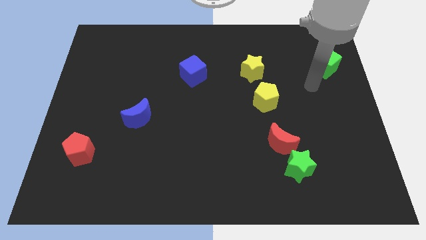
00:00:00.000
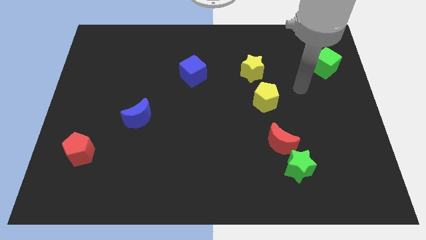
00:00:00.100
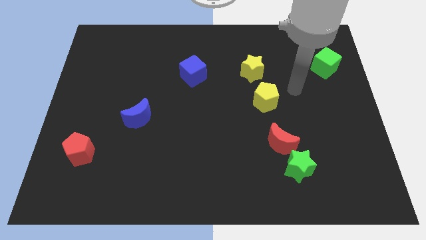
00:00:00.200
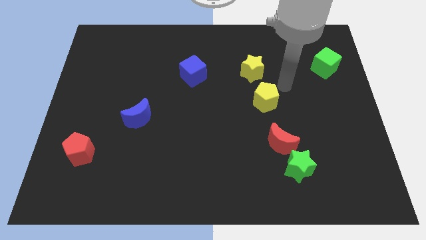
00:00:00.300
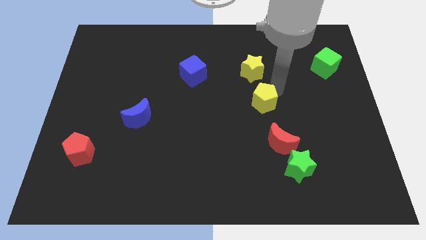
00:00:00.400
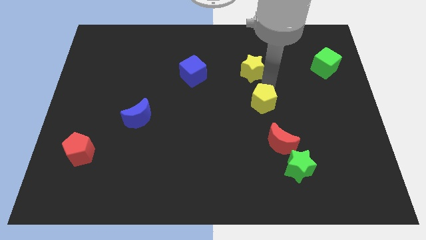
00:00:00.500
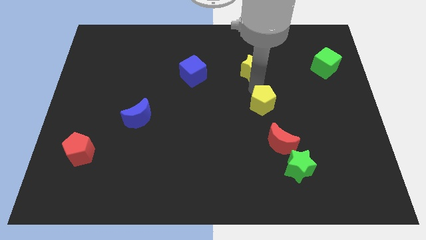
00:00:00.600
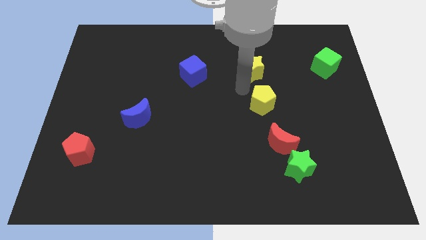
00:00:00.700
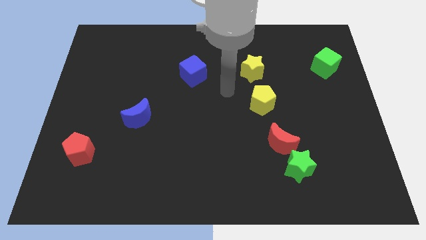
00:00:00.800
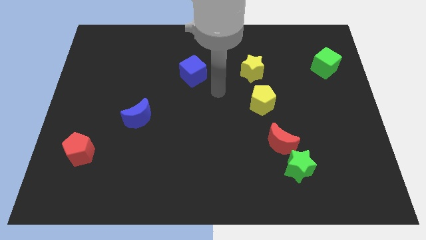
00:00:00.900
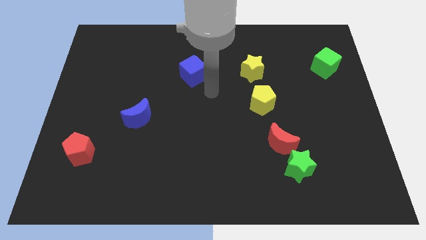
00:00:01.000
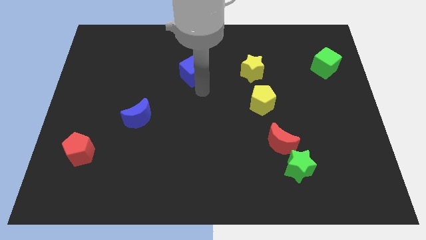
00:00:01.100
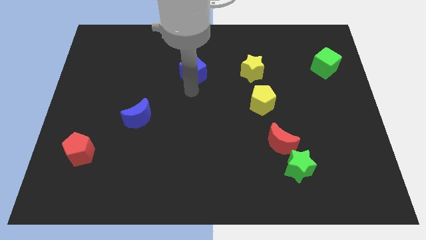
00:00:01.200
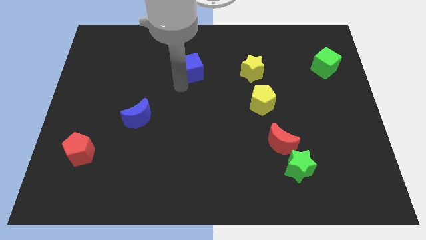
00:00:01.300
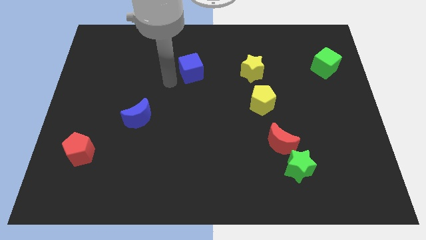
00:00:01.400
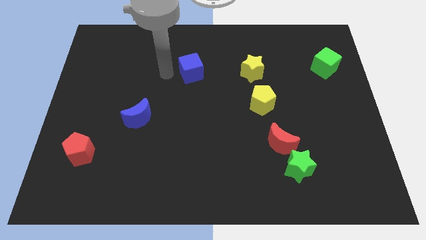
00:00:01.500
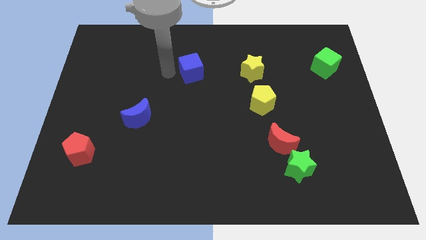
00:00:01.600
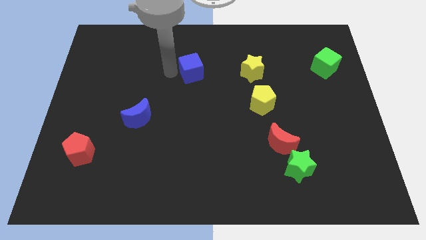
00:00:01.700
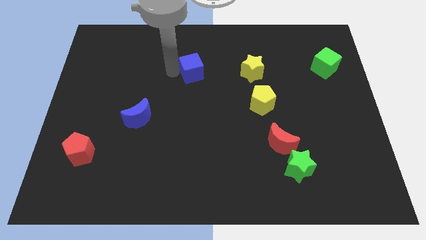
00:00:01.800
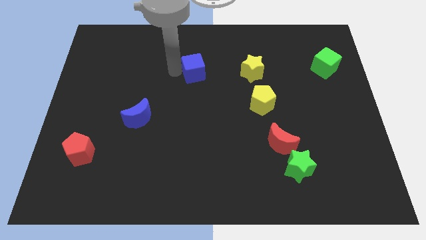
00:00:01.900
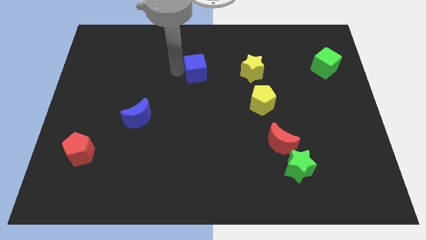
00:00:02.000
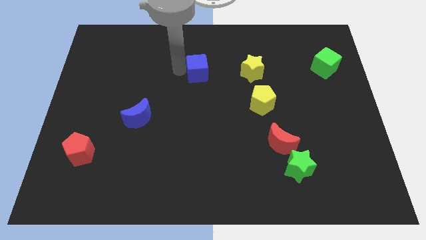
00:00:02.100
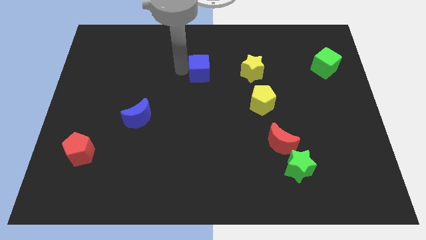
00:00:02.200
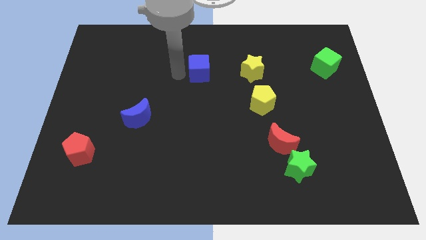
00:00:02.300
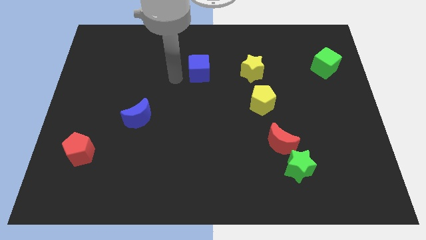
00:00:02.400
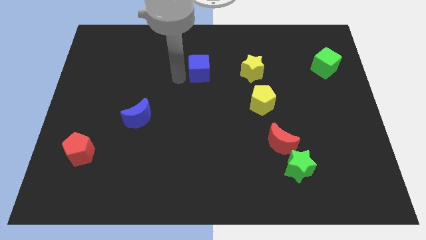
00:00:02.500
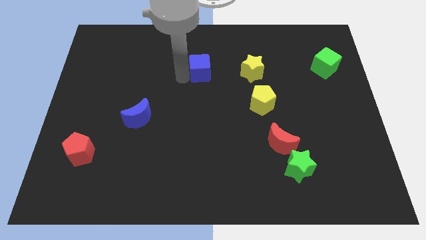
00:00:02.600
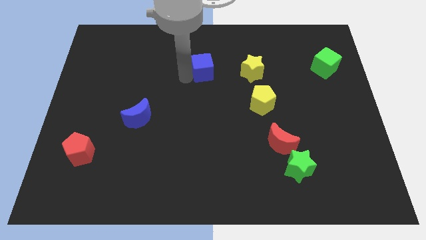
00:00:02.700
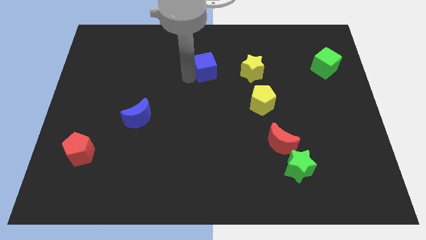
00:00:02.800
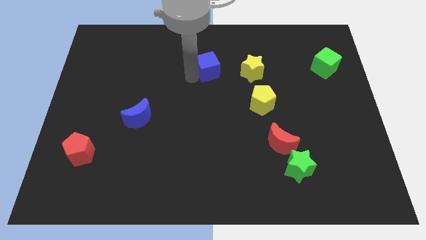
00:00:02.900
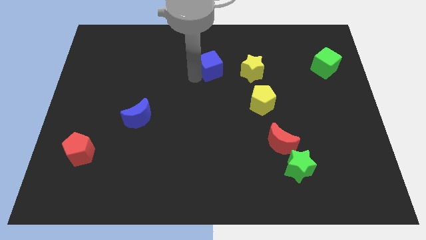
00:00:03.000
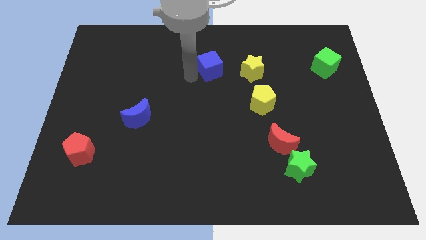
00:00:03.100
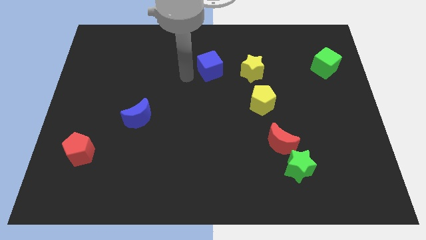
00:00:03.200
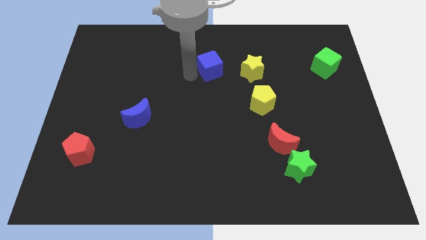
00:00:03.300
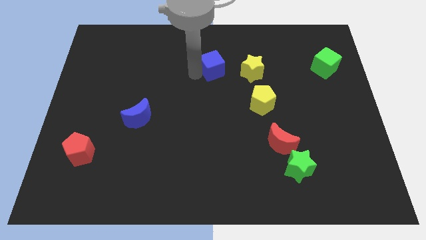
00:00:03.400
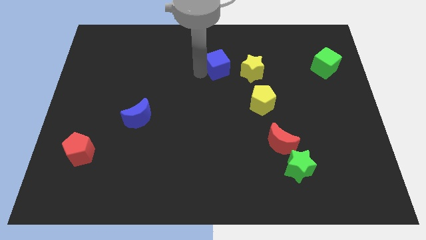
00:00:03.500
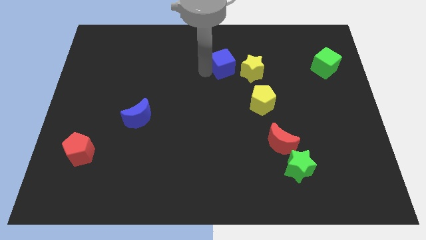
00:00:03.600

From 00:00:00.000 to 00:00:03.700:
push the blue cube a little right

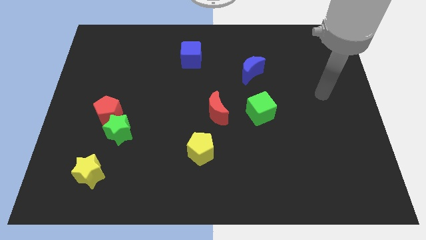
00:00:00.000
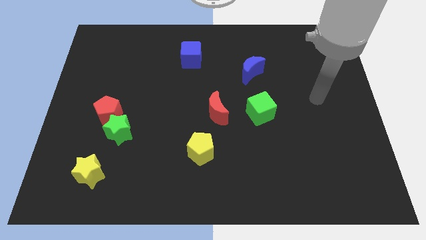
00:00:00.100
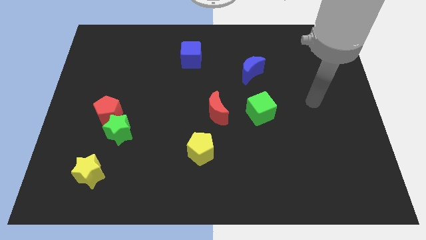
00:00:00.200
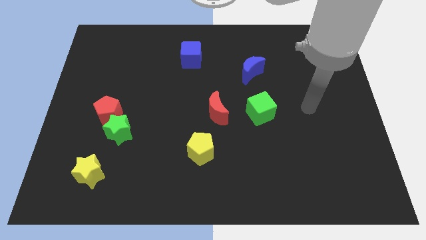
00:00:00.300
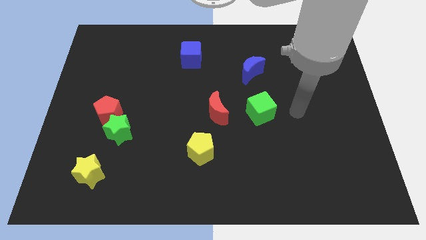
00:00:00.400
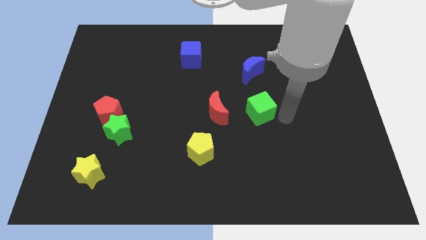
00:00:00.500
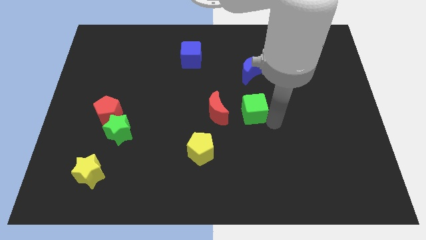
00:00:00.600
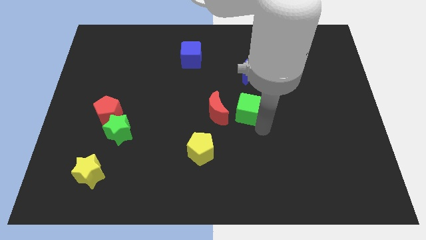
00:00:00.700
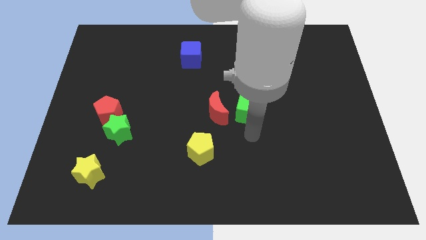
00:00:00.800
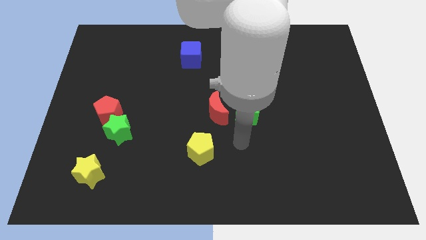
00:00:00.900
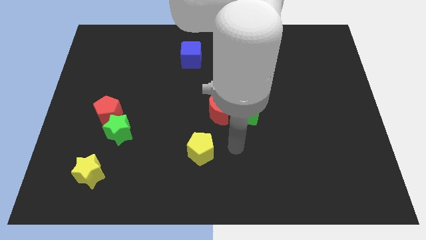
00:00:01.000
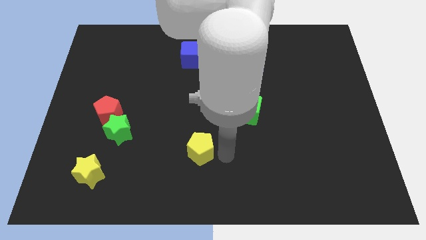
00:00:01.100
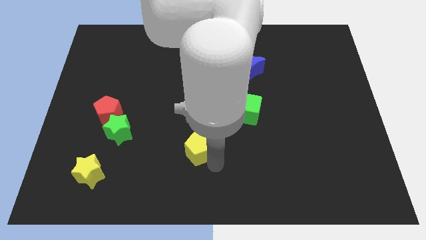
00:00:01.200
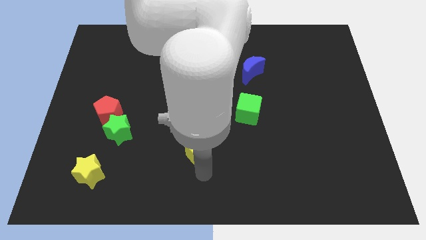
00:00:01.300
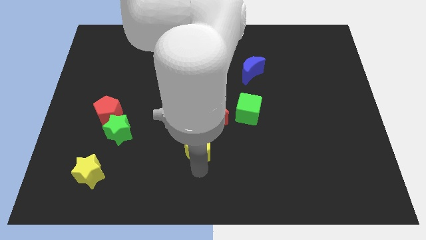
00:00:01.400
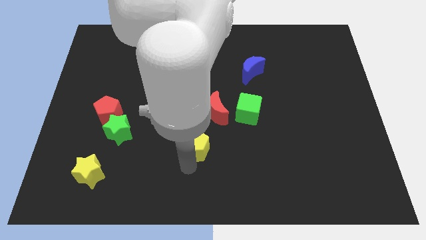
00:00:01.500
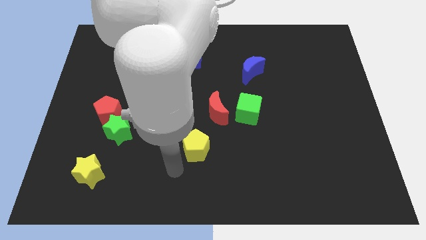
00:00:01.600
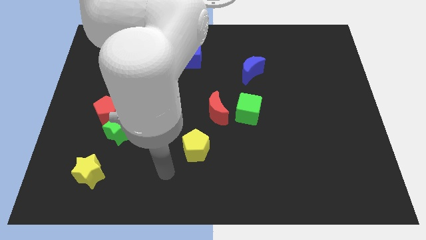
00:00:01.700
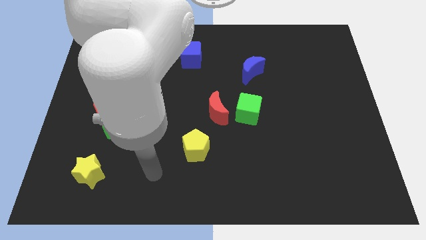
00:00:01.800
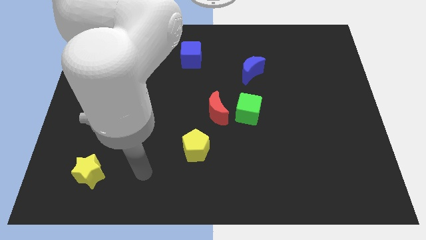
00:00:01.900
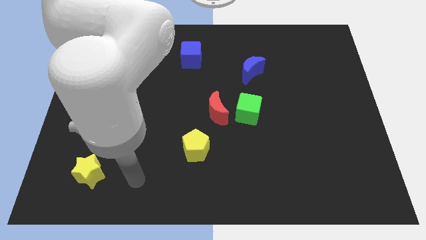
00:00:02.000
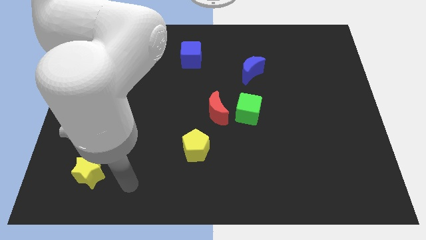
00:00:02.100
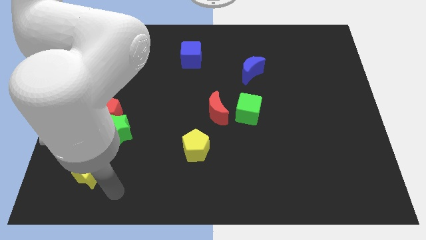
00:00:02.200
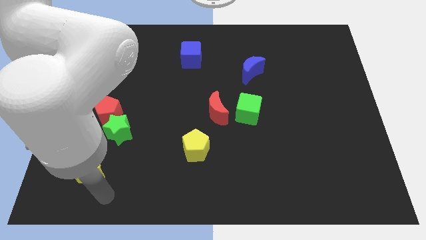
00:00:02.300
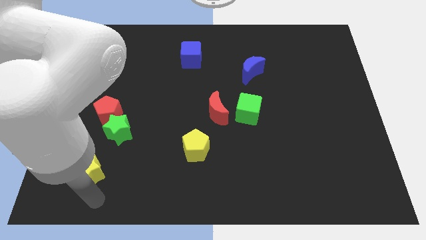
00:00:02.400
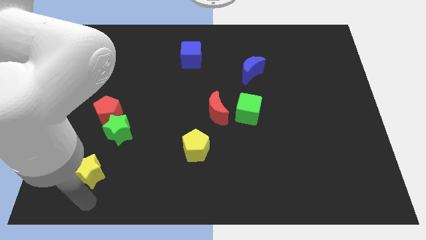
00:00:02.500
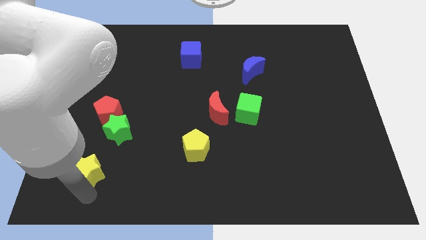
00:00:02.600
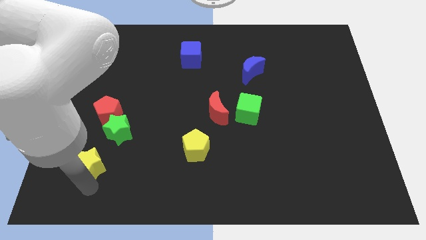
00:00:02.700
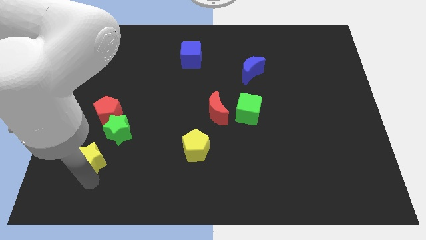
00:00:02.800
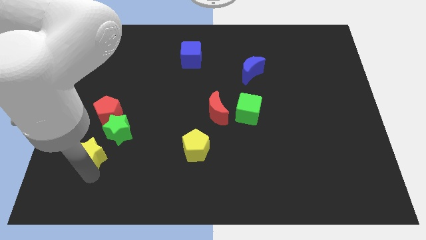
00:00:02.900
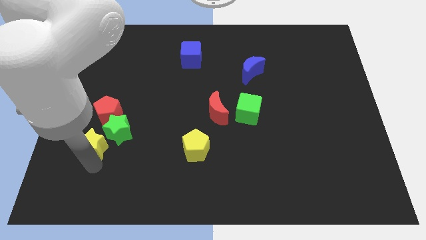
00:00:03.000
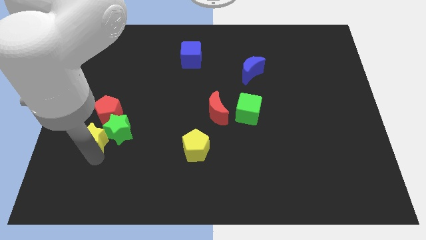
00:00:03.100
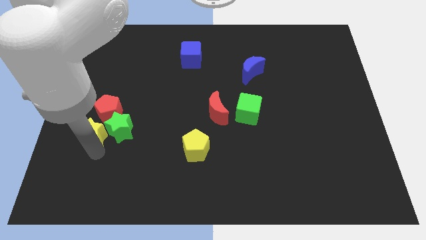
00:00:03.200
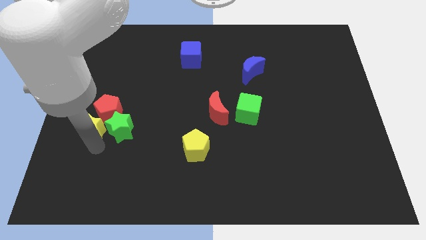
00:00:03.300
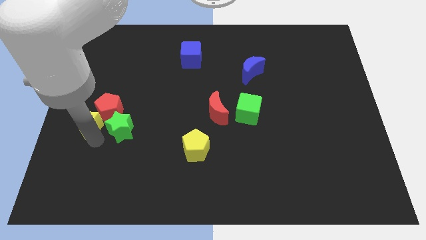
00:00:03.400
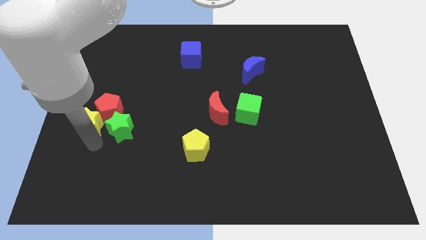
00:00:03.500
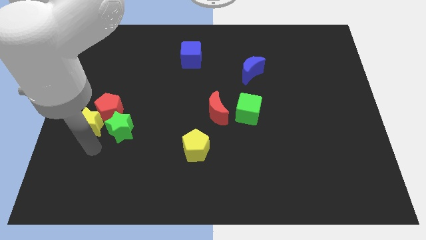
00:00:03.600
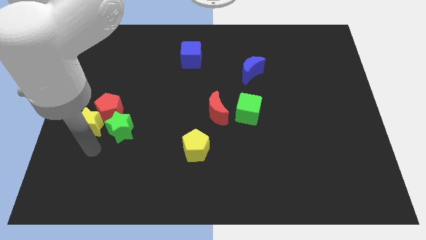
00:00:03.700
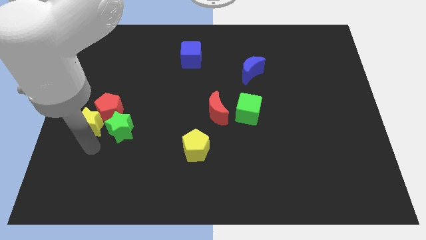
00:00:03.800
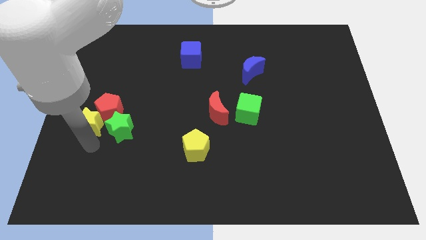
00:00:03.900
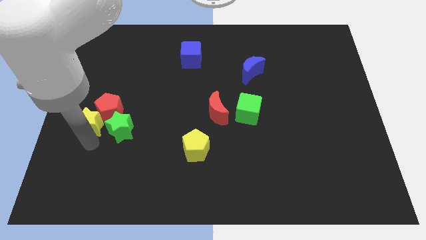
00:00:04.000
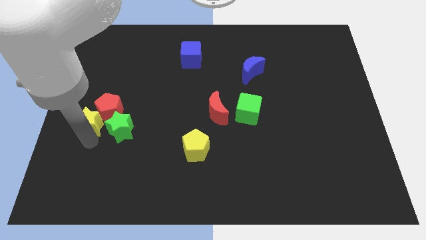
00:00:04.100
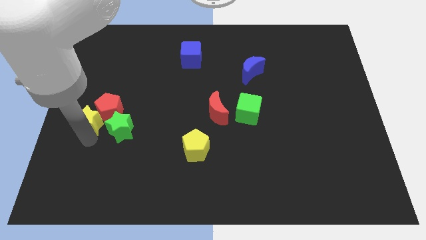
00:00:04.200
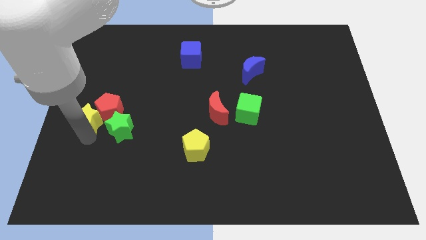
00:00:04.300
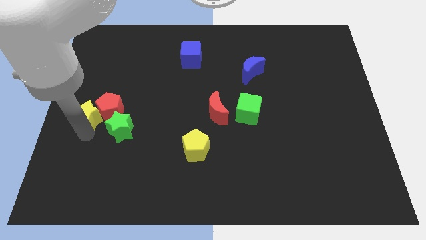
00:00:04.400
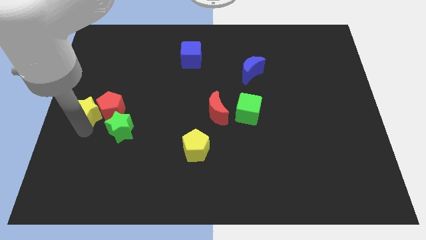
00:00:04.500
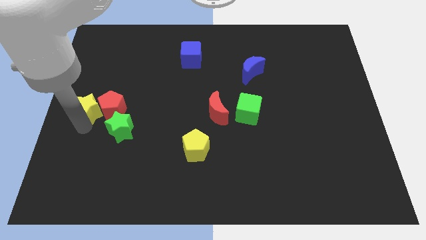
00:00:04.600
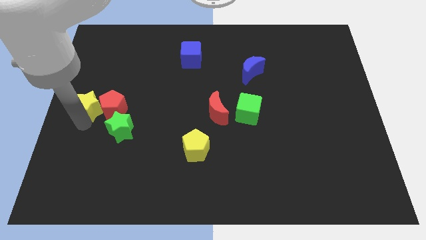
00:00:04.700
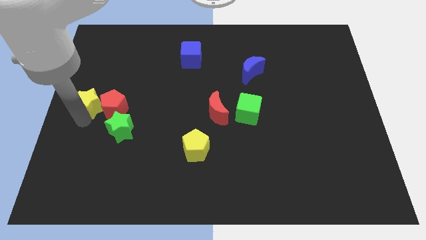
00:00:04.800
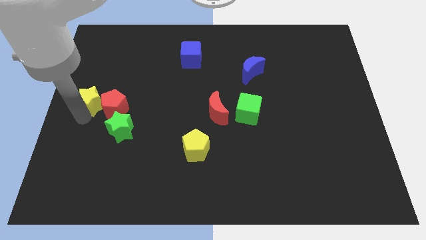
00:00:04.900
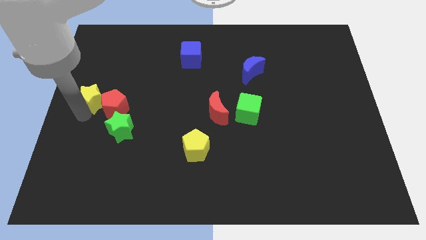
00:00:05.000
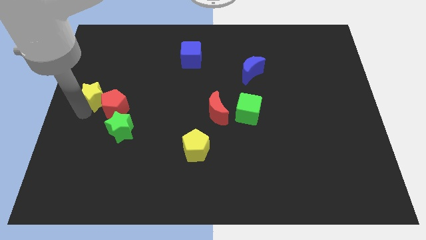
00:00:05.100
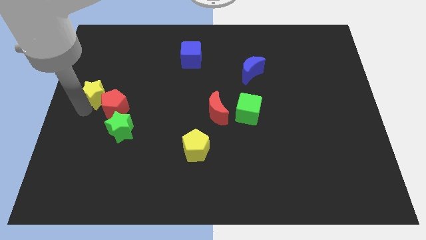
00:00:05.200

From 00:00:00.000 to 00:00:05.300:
push the yellow star upwards
